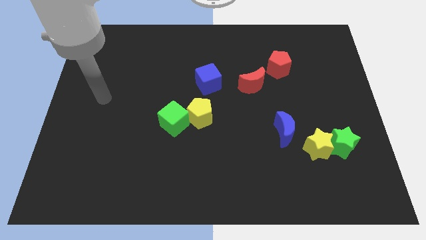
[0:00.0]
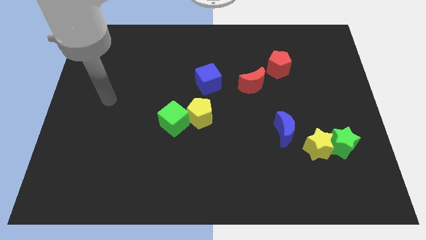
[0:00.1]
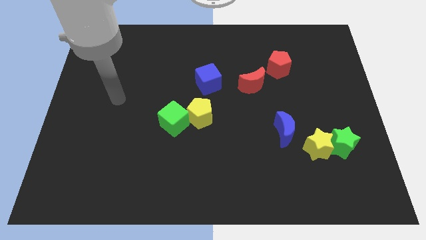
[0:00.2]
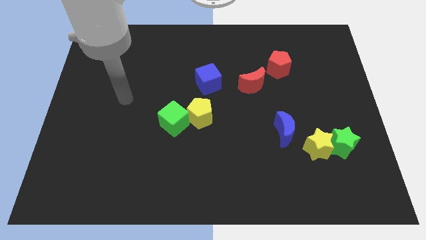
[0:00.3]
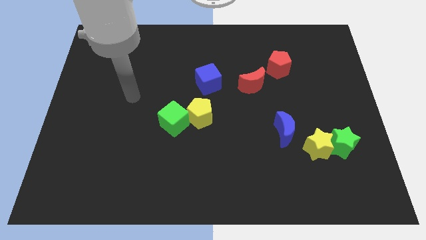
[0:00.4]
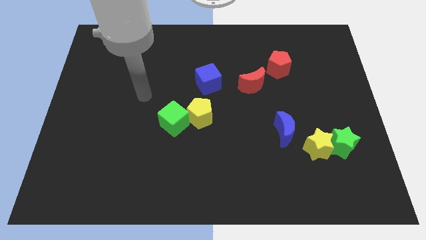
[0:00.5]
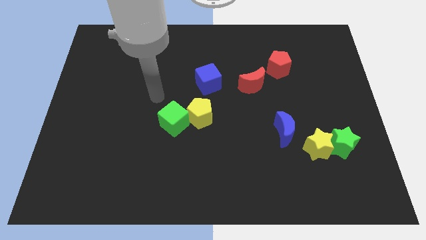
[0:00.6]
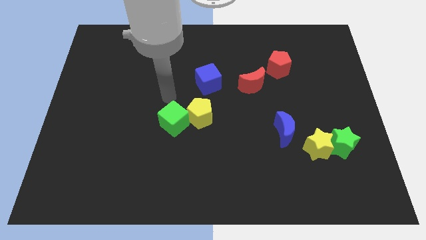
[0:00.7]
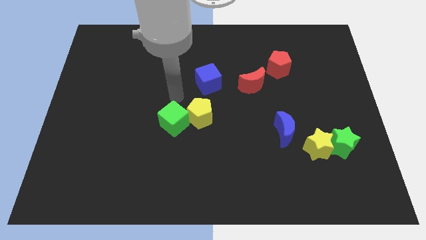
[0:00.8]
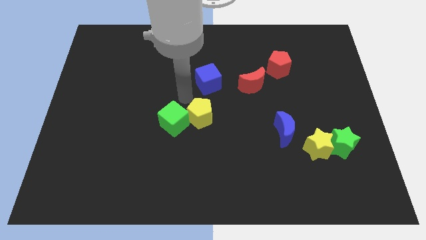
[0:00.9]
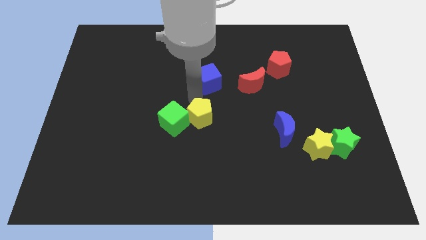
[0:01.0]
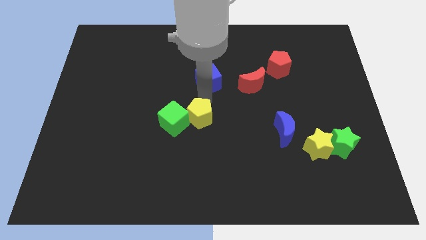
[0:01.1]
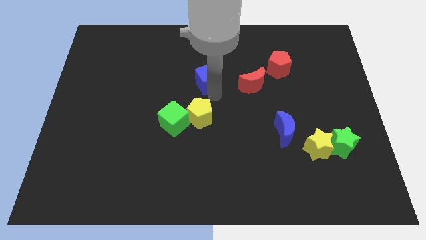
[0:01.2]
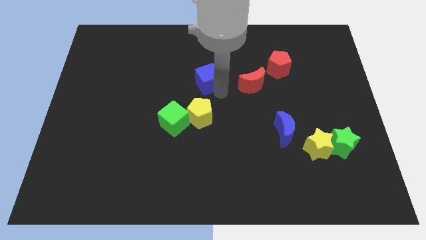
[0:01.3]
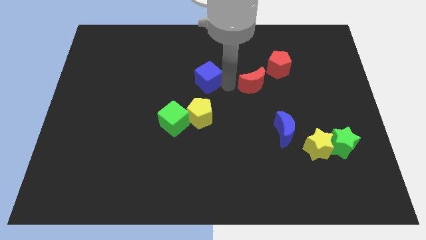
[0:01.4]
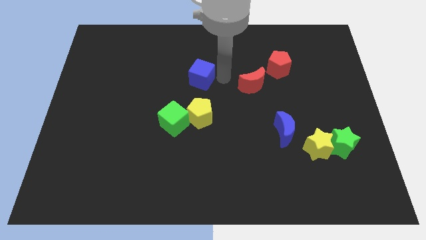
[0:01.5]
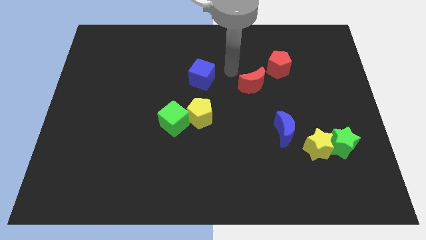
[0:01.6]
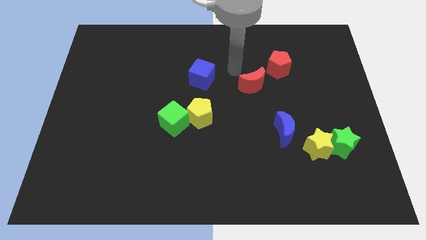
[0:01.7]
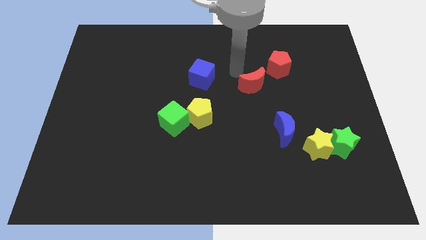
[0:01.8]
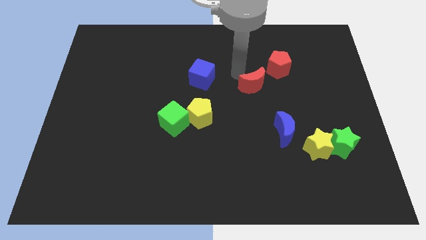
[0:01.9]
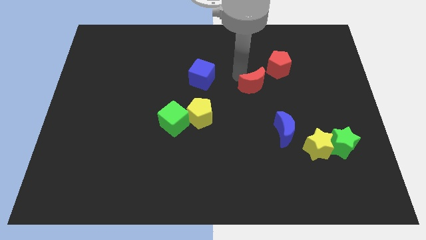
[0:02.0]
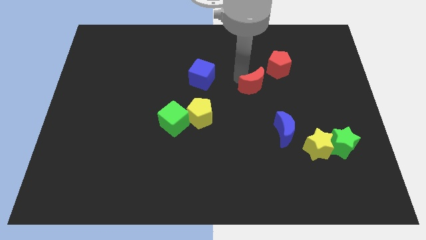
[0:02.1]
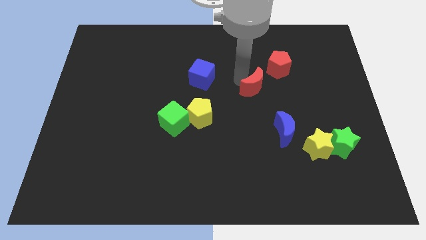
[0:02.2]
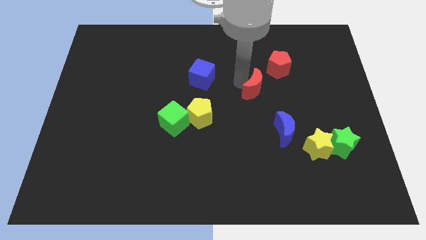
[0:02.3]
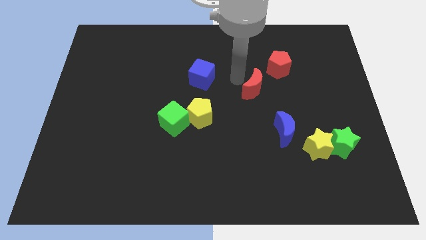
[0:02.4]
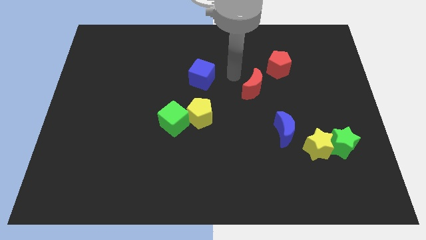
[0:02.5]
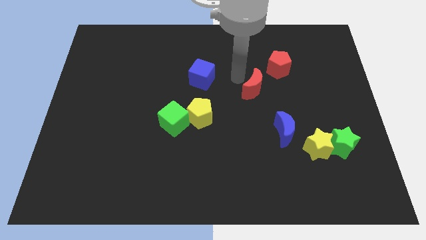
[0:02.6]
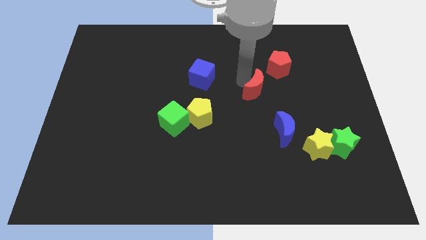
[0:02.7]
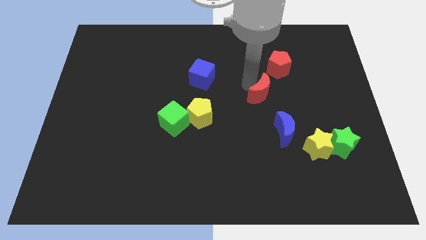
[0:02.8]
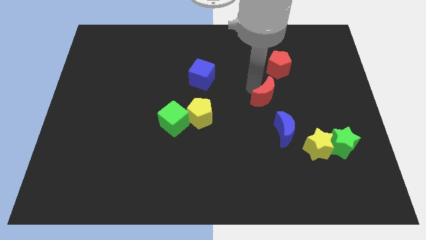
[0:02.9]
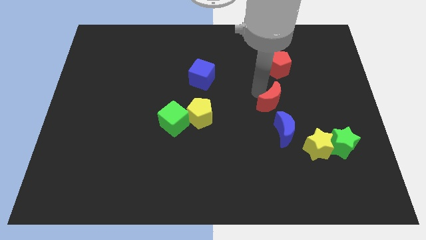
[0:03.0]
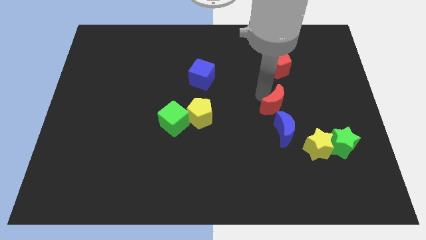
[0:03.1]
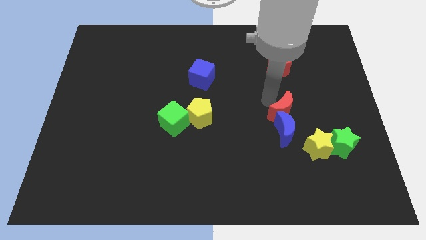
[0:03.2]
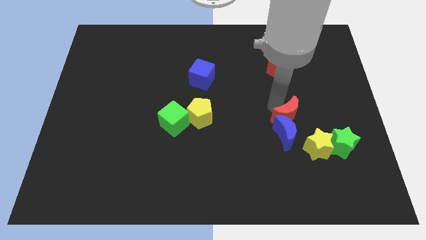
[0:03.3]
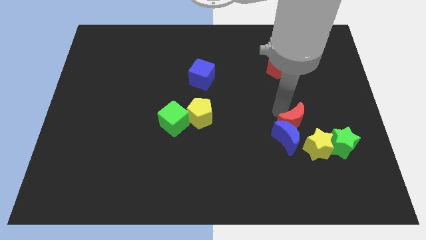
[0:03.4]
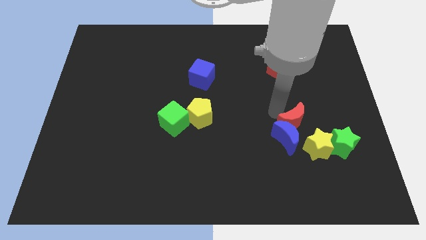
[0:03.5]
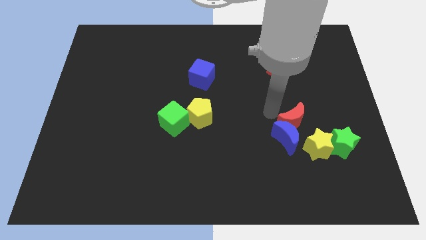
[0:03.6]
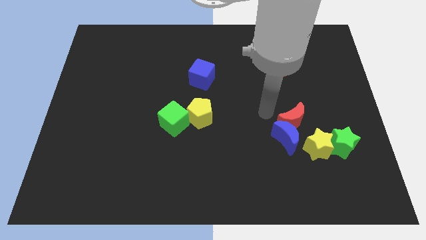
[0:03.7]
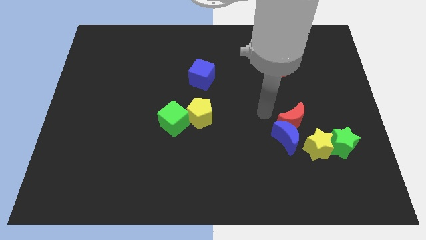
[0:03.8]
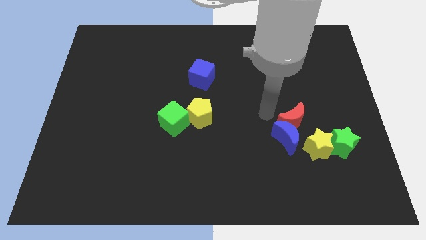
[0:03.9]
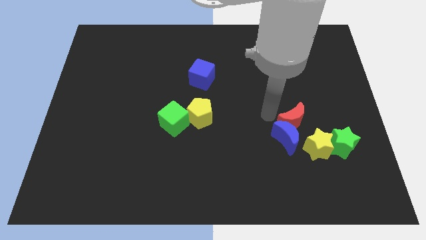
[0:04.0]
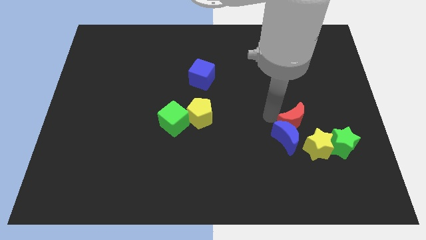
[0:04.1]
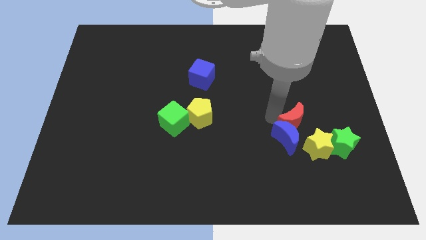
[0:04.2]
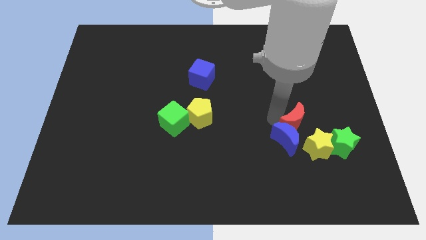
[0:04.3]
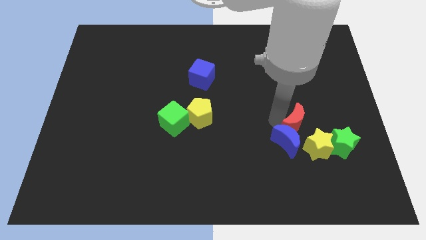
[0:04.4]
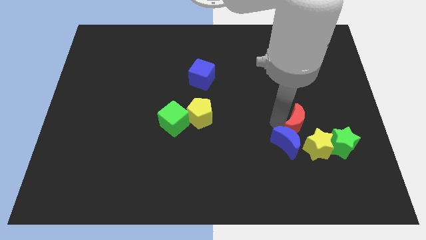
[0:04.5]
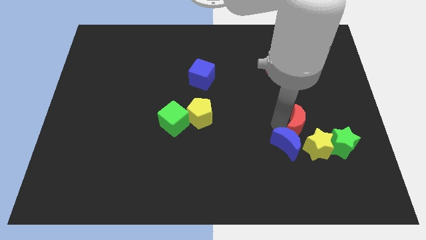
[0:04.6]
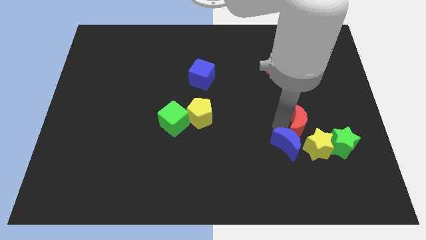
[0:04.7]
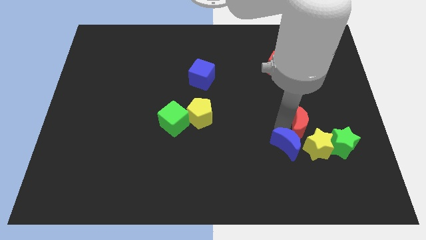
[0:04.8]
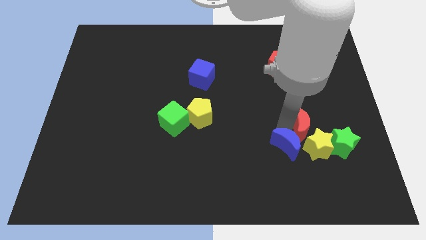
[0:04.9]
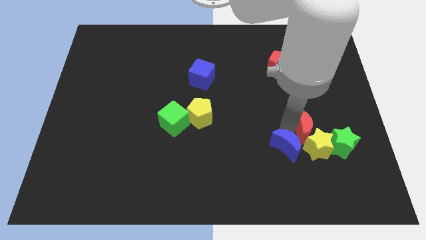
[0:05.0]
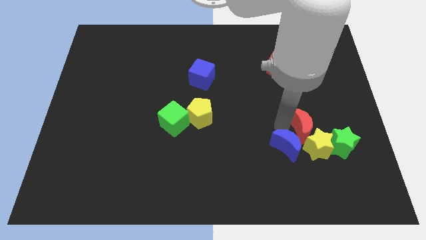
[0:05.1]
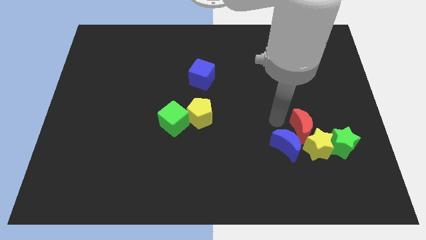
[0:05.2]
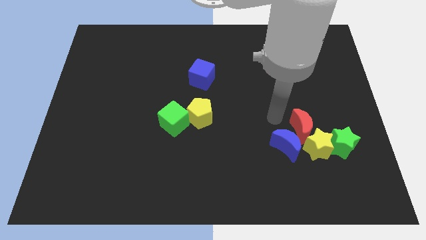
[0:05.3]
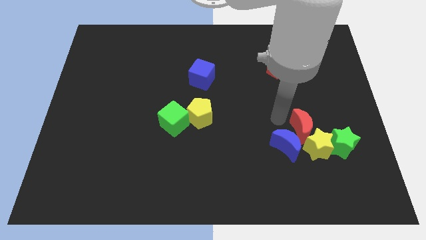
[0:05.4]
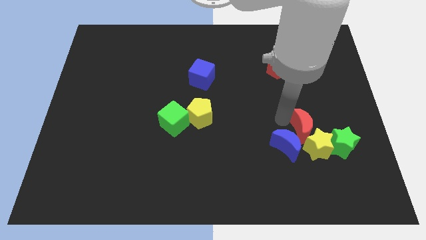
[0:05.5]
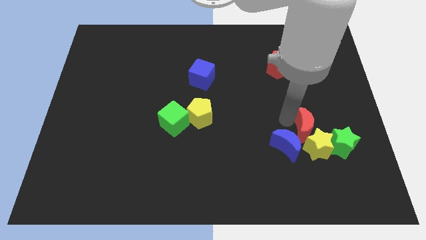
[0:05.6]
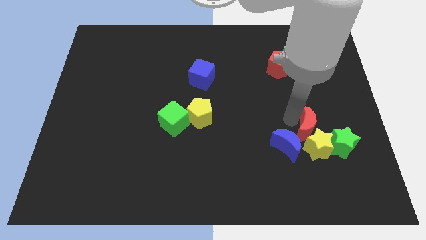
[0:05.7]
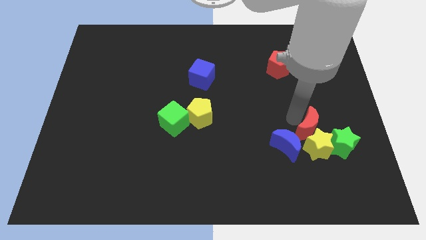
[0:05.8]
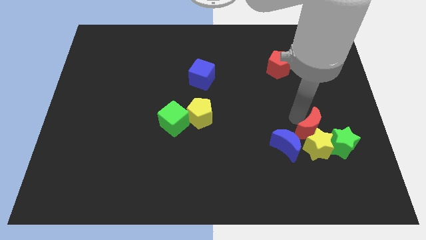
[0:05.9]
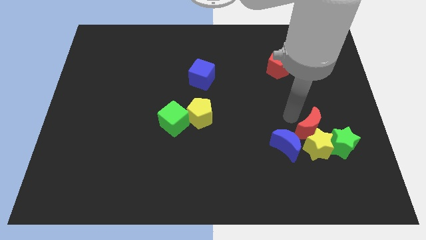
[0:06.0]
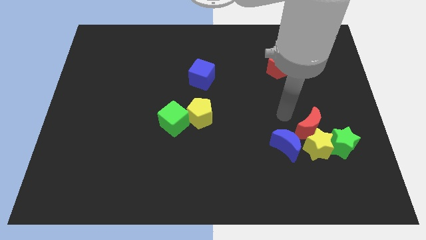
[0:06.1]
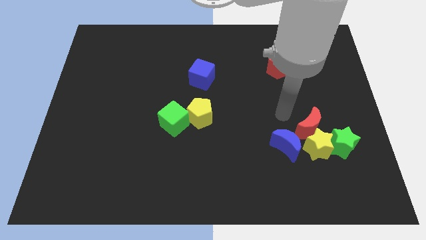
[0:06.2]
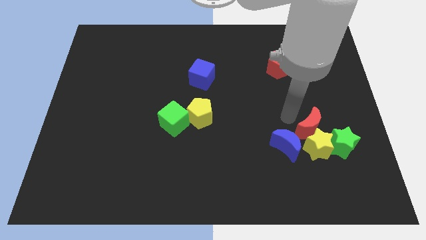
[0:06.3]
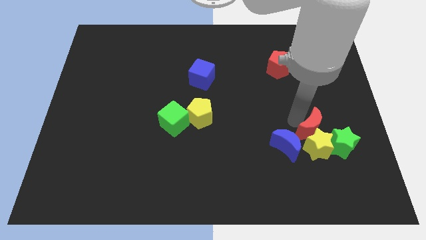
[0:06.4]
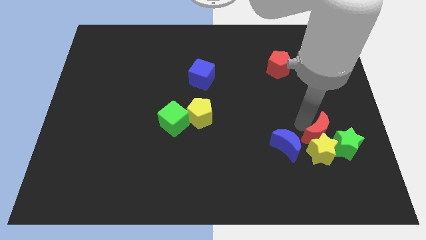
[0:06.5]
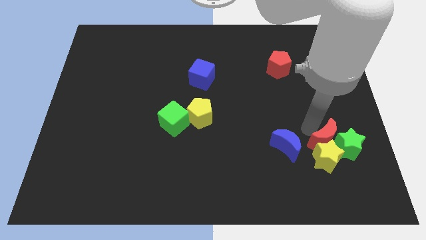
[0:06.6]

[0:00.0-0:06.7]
put the red moon next to the green star
